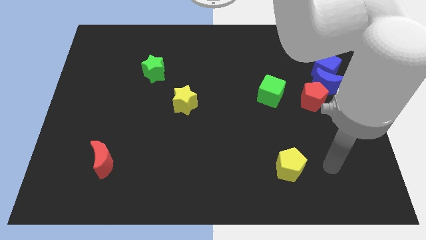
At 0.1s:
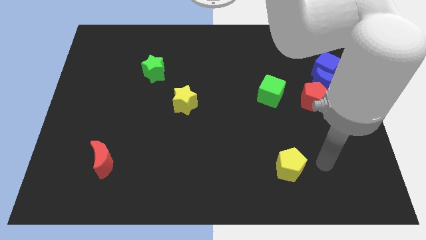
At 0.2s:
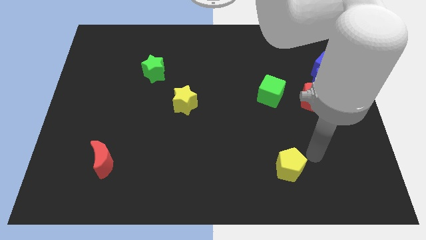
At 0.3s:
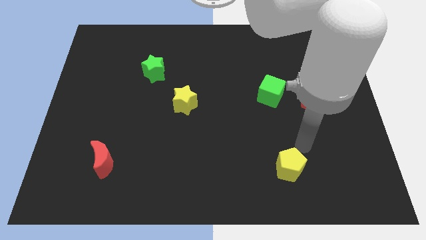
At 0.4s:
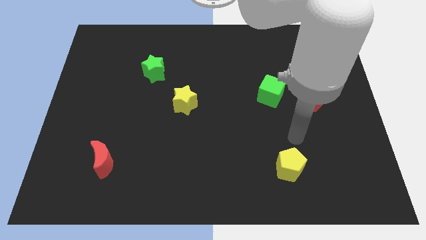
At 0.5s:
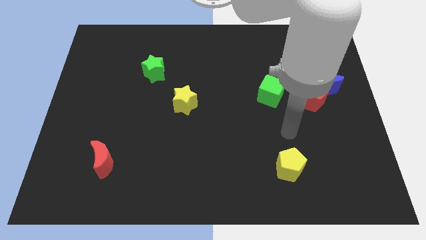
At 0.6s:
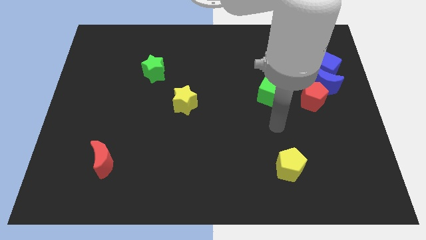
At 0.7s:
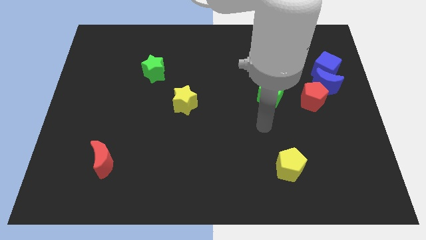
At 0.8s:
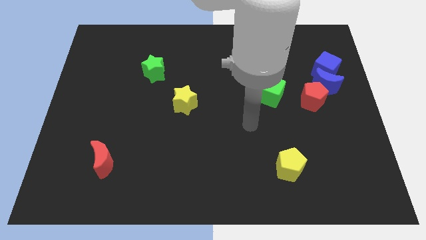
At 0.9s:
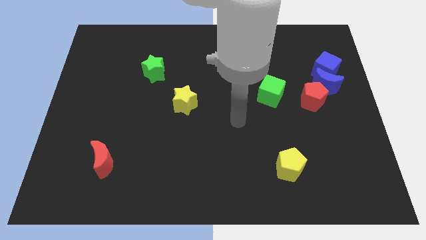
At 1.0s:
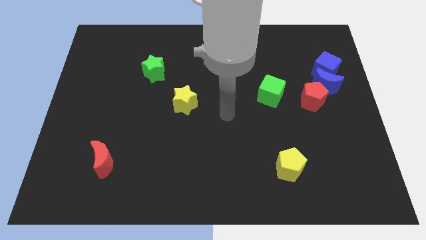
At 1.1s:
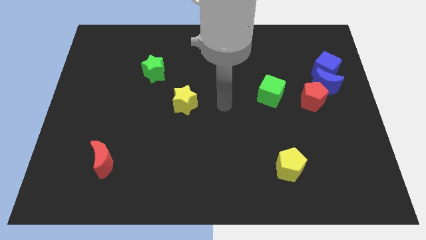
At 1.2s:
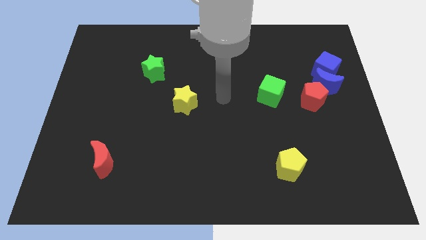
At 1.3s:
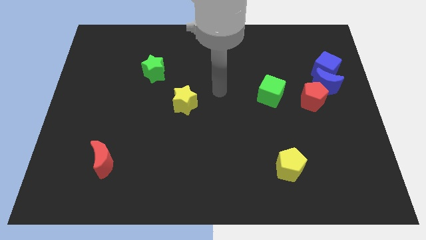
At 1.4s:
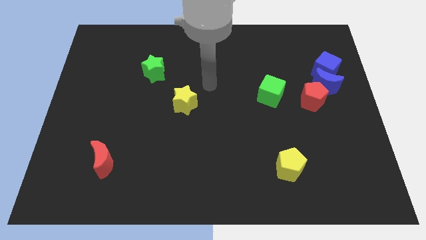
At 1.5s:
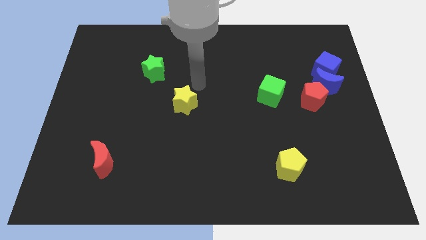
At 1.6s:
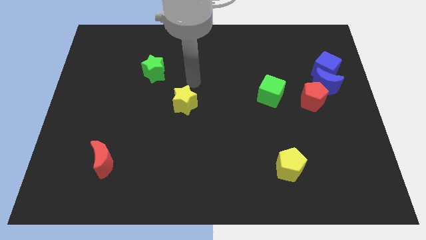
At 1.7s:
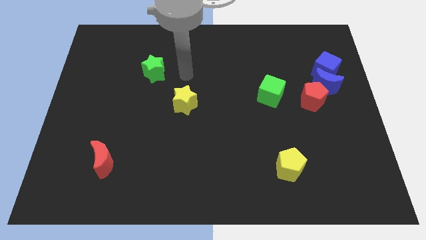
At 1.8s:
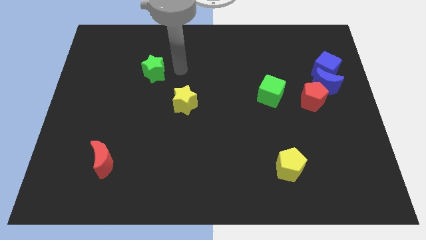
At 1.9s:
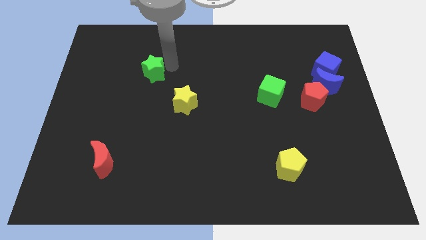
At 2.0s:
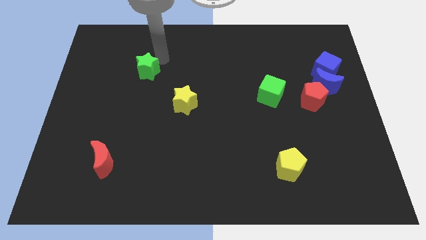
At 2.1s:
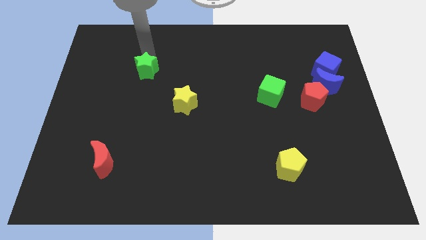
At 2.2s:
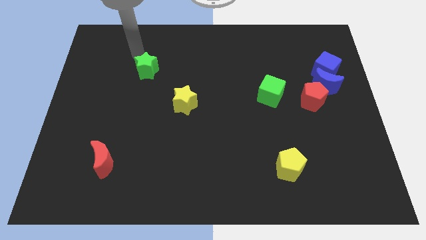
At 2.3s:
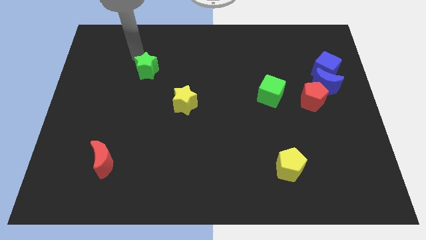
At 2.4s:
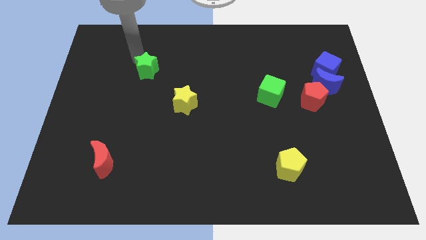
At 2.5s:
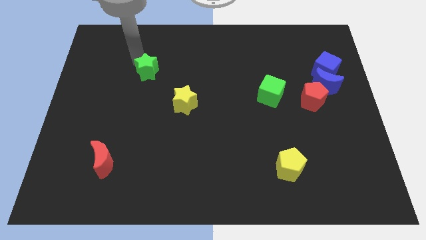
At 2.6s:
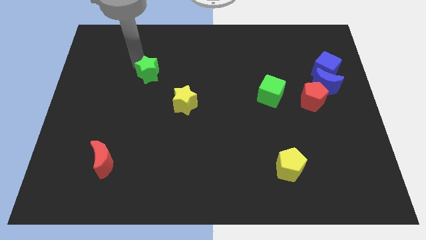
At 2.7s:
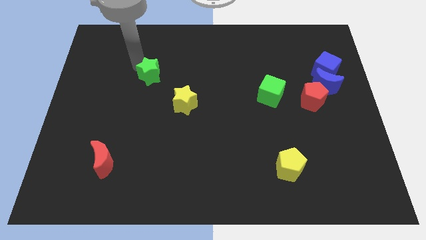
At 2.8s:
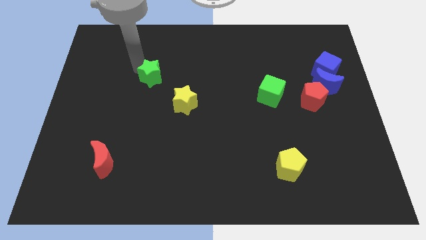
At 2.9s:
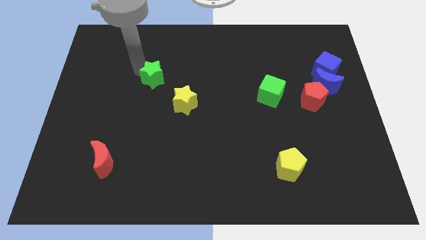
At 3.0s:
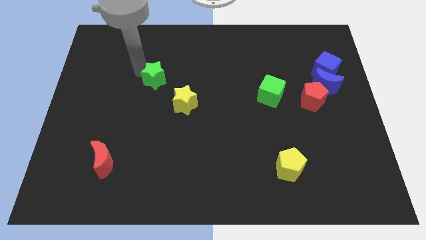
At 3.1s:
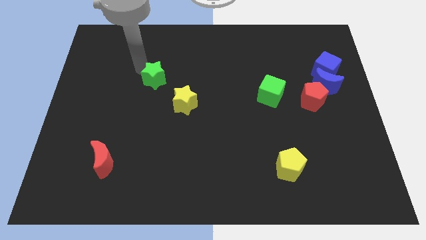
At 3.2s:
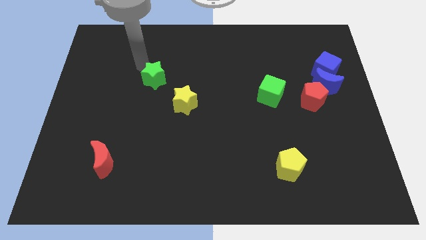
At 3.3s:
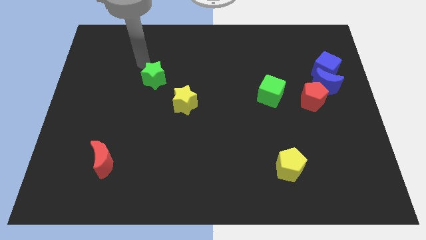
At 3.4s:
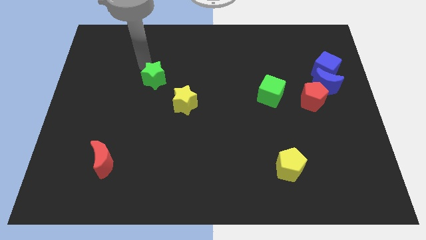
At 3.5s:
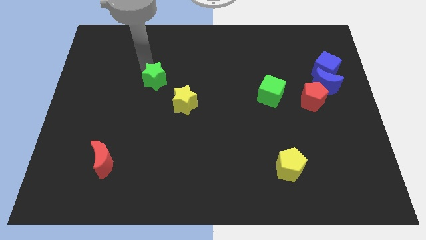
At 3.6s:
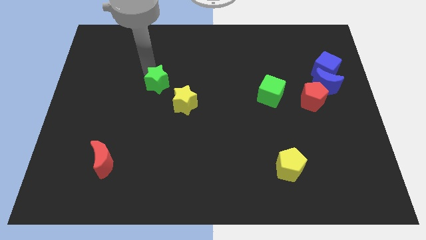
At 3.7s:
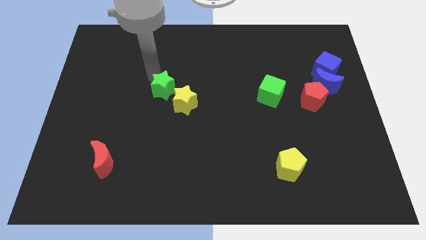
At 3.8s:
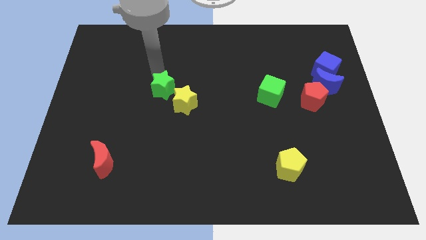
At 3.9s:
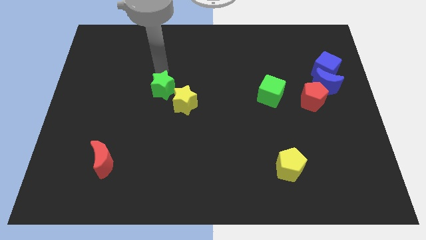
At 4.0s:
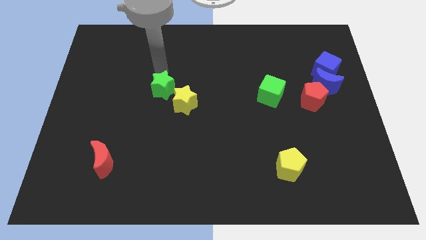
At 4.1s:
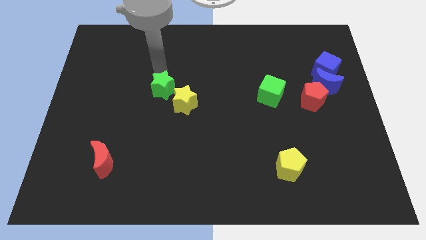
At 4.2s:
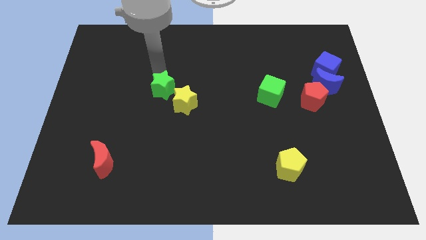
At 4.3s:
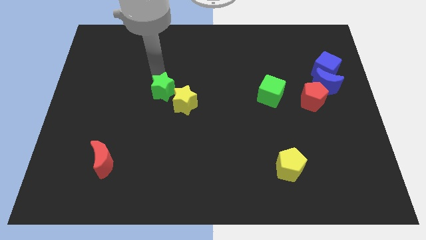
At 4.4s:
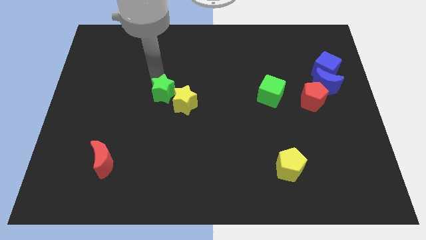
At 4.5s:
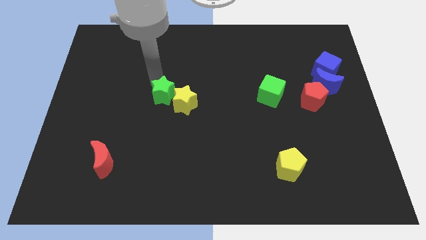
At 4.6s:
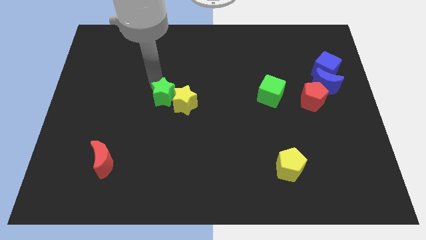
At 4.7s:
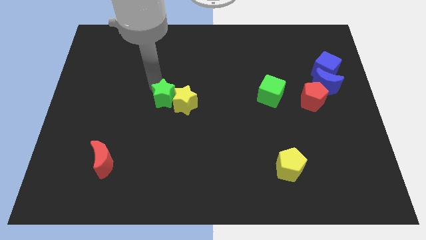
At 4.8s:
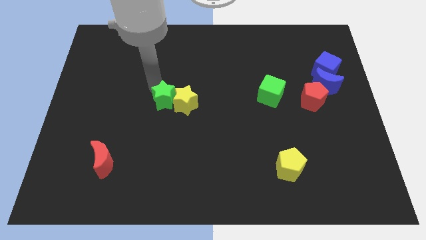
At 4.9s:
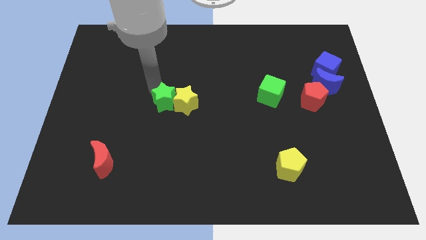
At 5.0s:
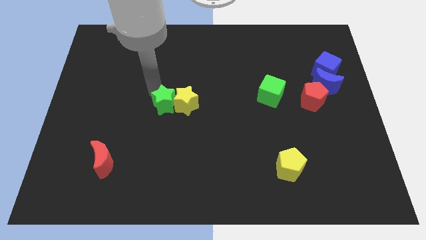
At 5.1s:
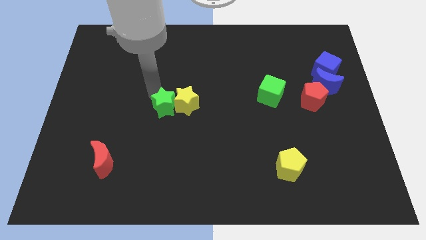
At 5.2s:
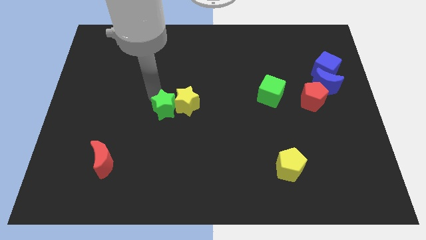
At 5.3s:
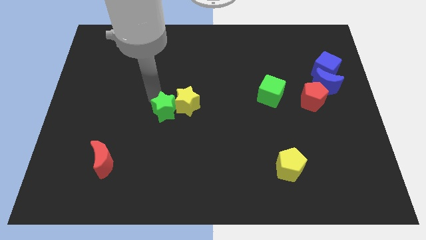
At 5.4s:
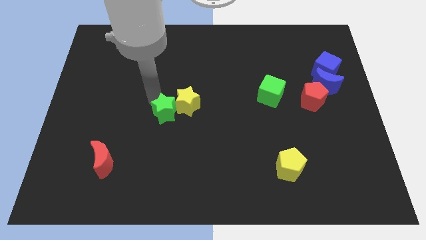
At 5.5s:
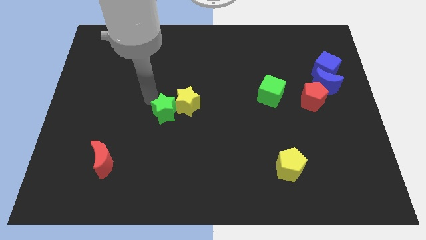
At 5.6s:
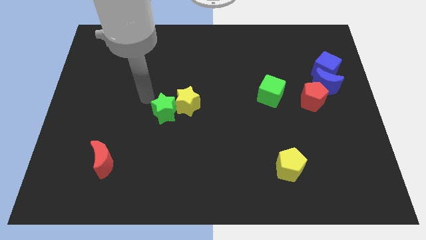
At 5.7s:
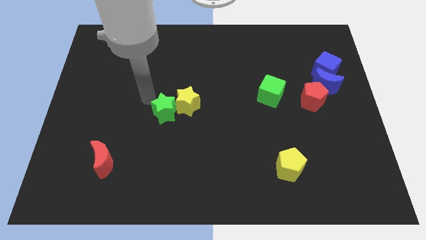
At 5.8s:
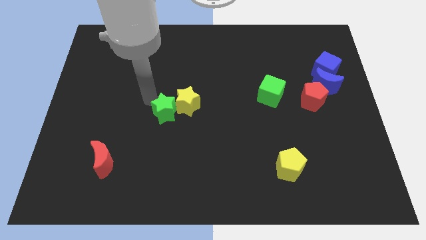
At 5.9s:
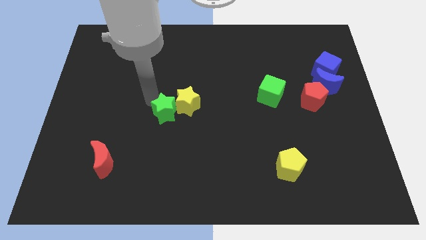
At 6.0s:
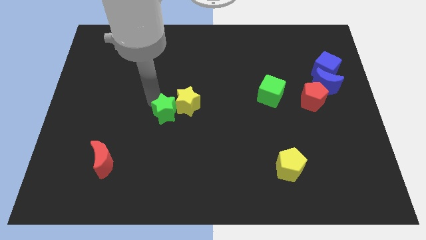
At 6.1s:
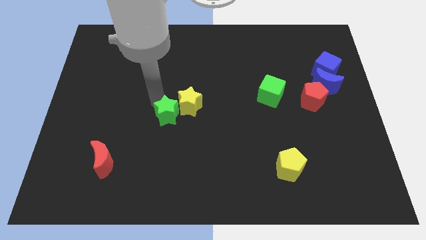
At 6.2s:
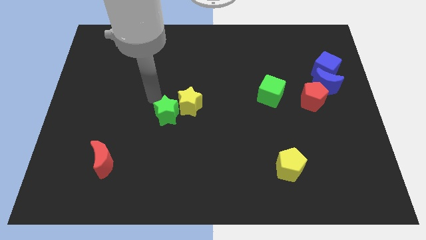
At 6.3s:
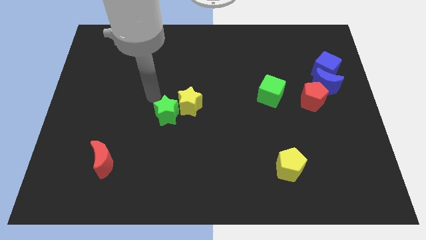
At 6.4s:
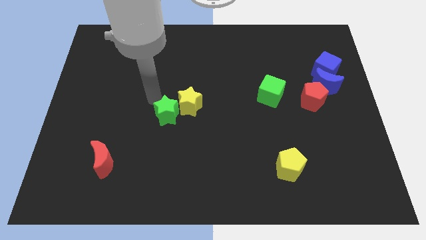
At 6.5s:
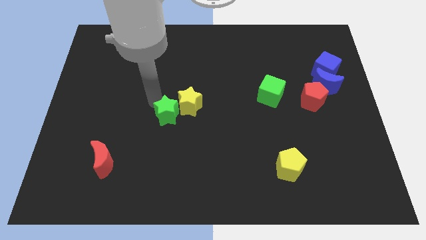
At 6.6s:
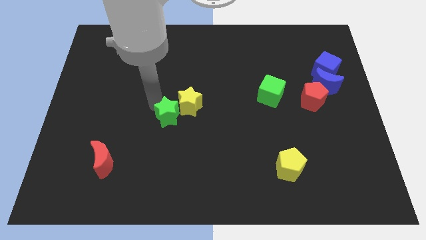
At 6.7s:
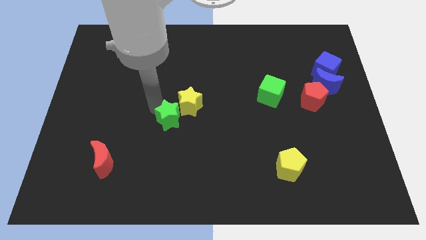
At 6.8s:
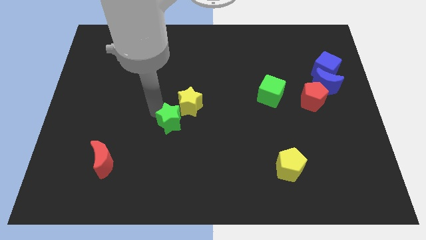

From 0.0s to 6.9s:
push the green star to the bottom side of the yellow star

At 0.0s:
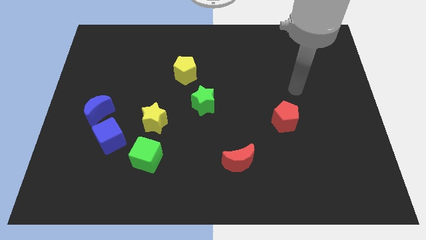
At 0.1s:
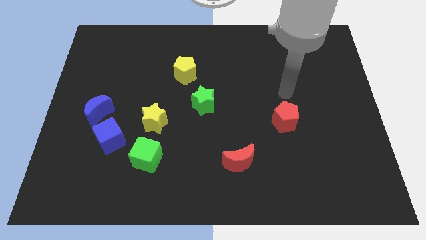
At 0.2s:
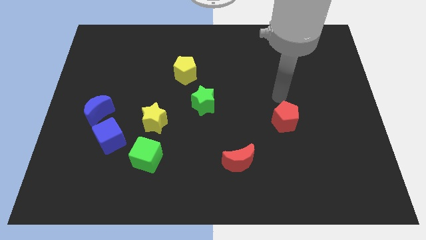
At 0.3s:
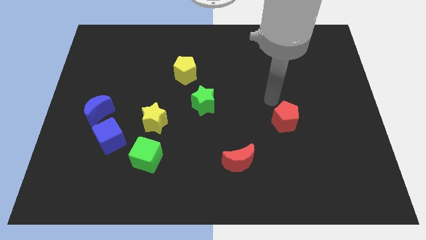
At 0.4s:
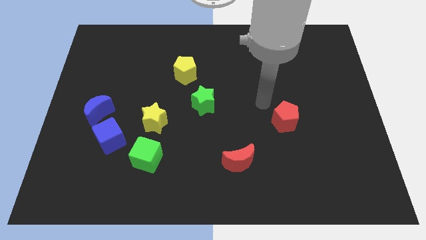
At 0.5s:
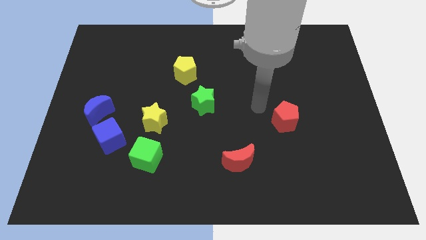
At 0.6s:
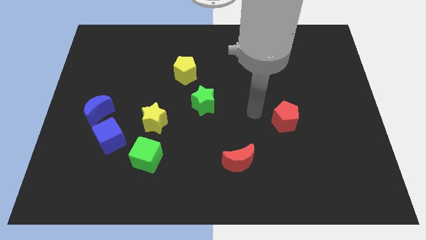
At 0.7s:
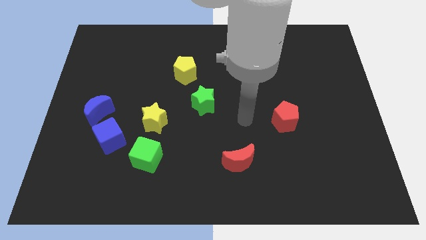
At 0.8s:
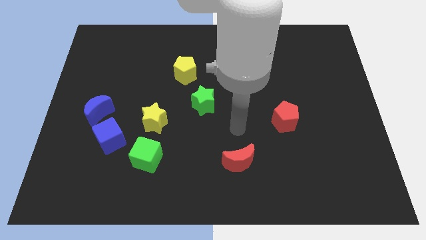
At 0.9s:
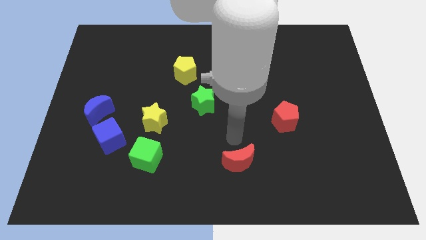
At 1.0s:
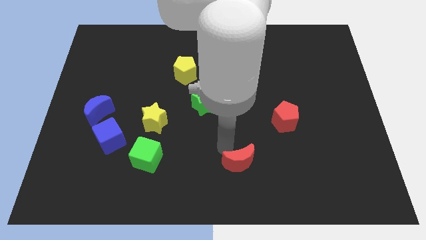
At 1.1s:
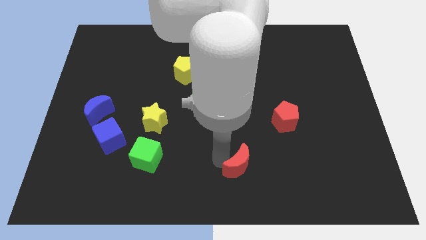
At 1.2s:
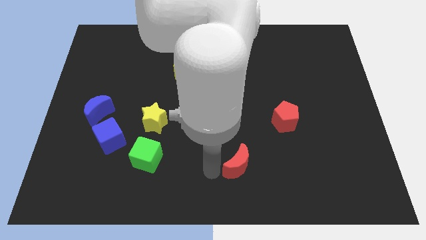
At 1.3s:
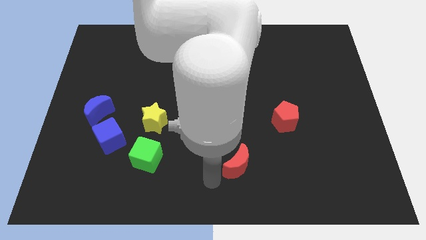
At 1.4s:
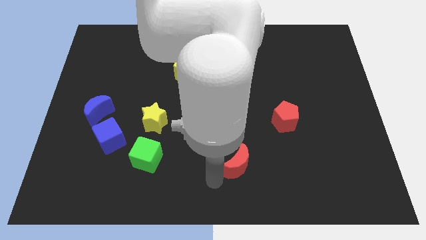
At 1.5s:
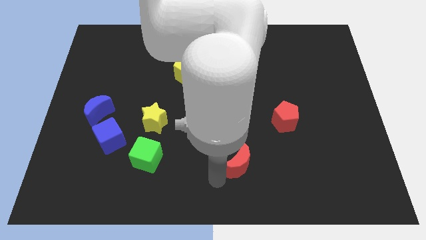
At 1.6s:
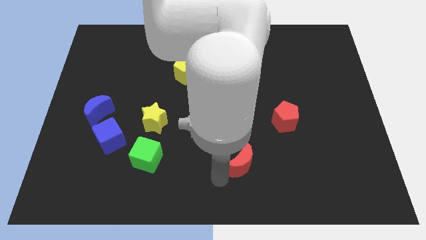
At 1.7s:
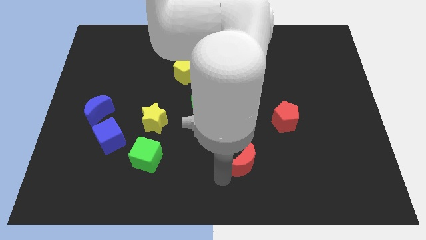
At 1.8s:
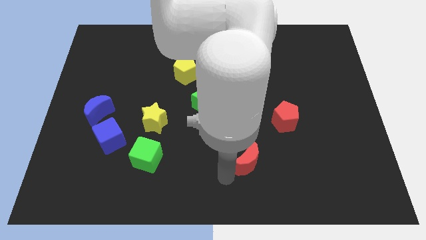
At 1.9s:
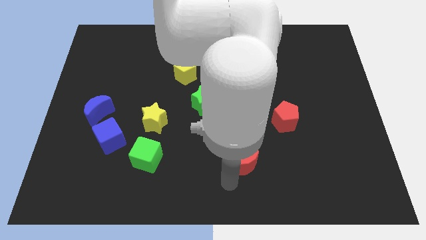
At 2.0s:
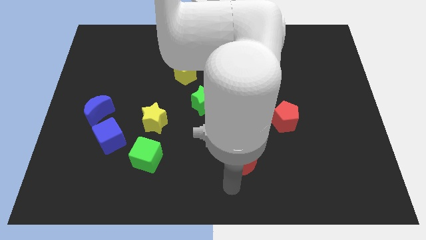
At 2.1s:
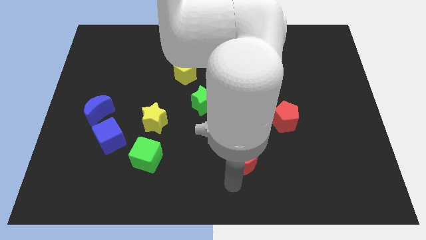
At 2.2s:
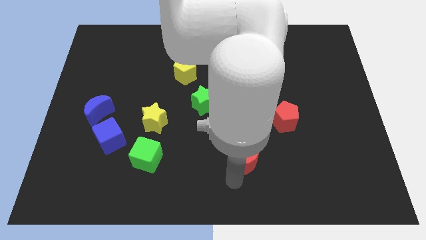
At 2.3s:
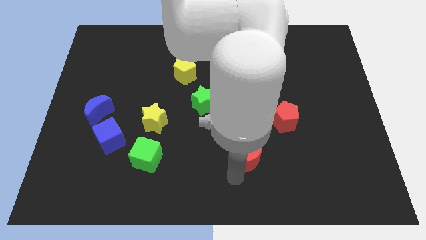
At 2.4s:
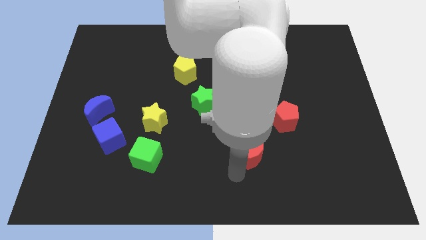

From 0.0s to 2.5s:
put the red moon diagonally down and to the left of the red pentagon
